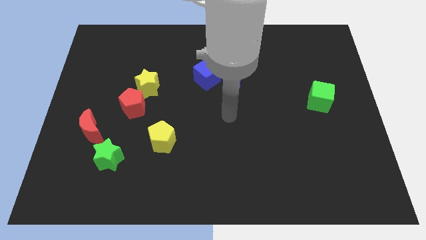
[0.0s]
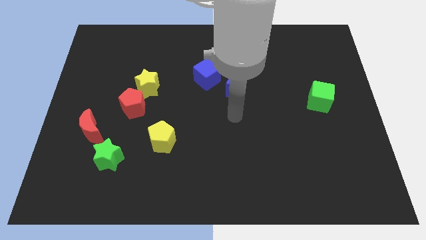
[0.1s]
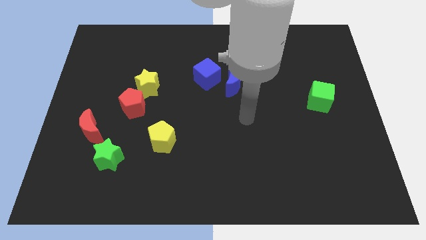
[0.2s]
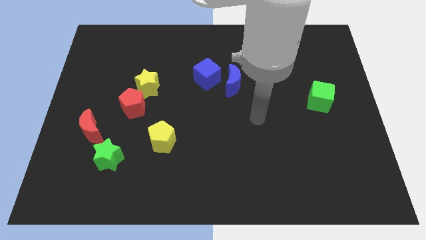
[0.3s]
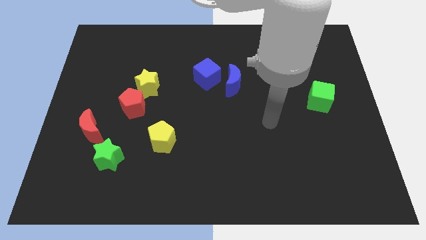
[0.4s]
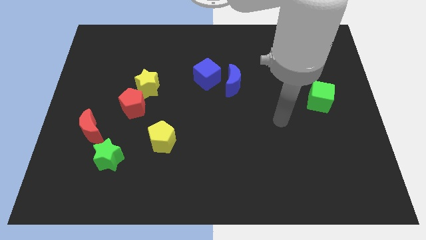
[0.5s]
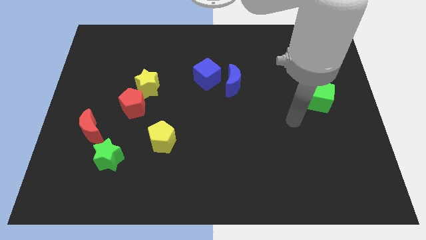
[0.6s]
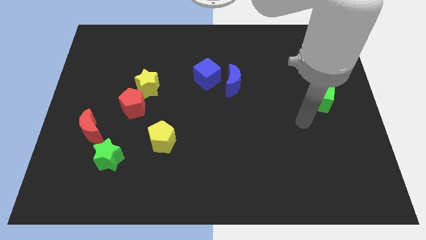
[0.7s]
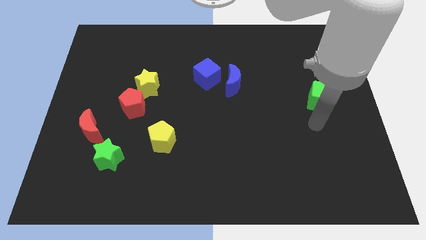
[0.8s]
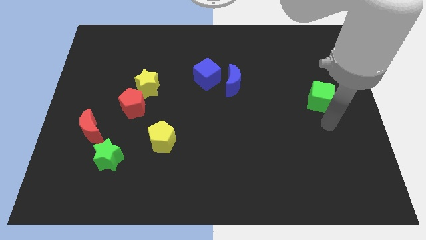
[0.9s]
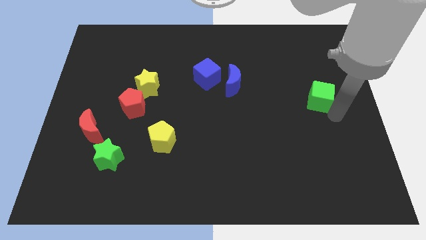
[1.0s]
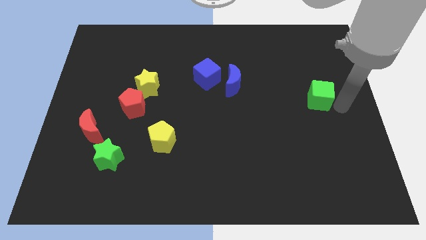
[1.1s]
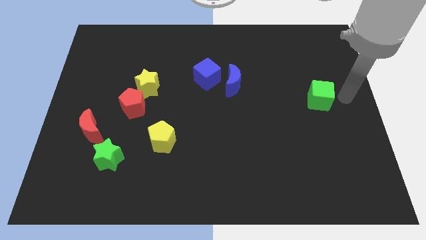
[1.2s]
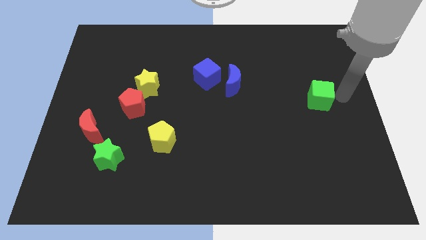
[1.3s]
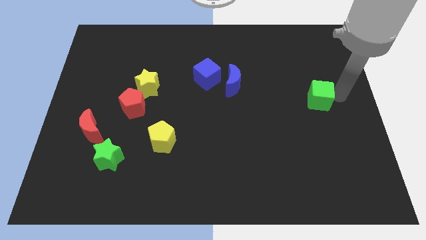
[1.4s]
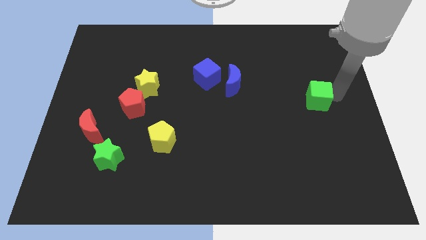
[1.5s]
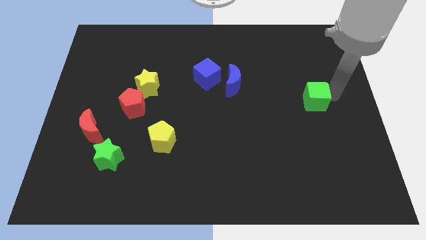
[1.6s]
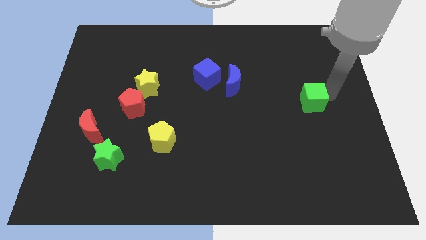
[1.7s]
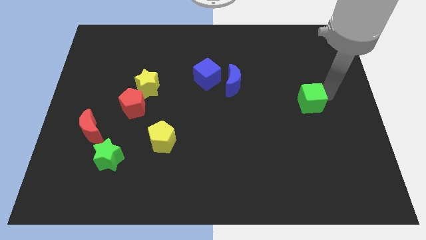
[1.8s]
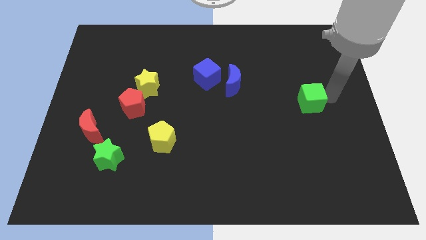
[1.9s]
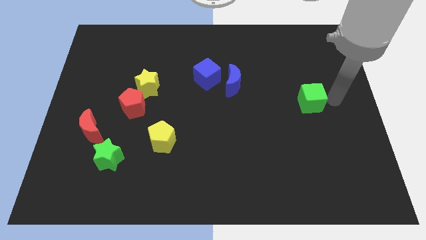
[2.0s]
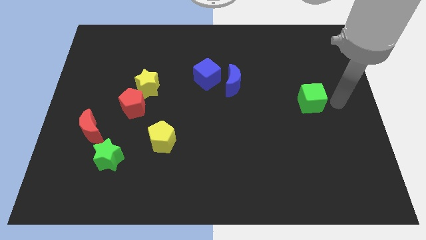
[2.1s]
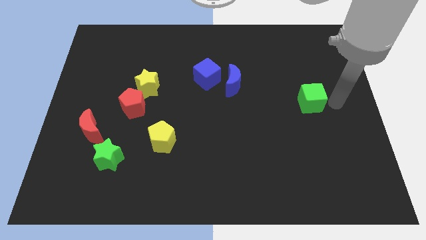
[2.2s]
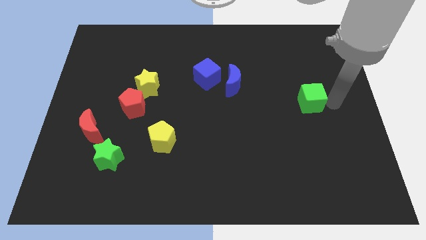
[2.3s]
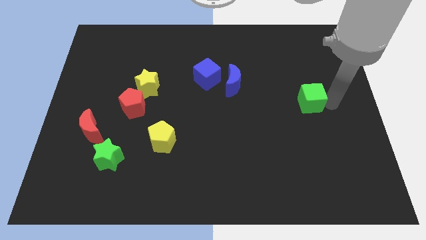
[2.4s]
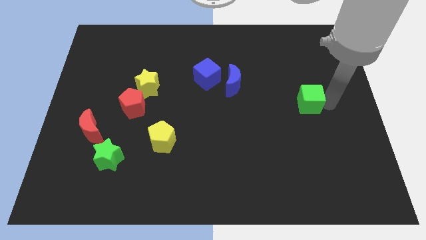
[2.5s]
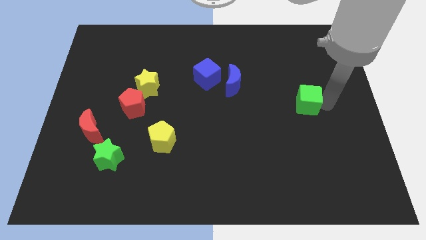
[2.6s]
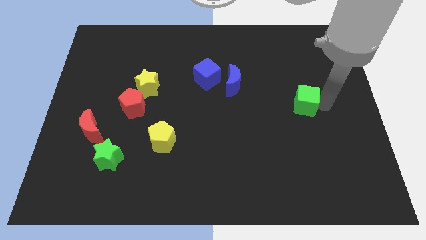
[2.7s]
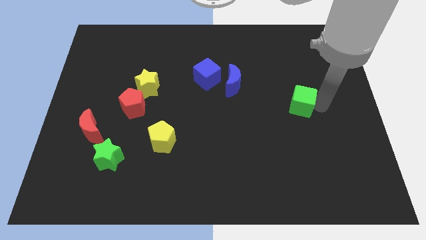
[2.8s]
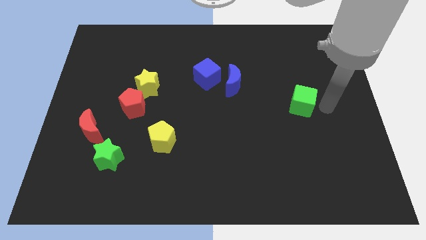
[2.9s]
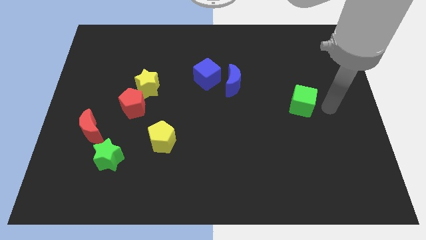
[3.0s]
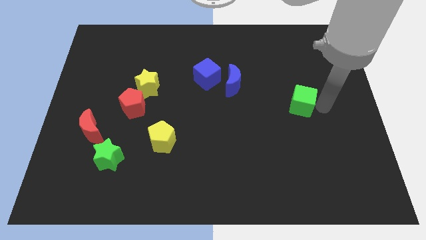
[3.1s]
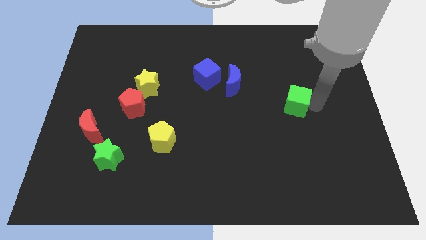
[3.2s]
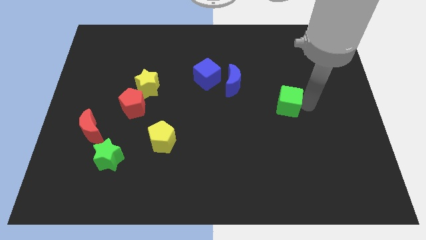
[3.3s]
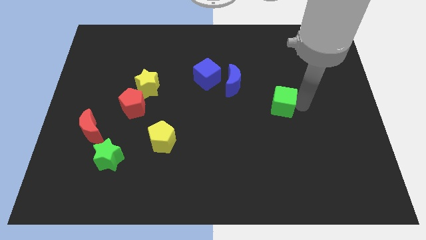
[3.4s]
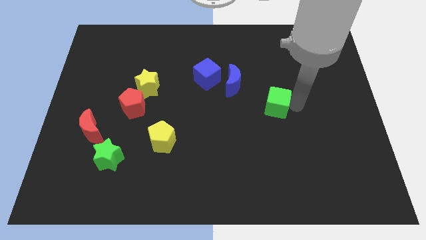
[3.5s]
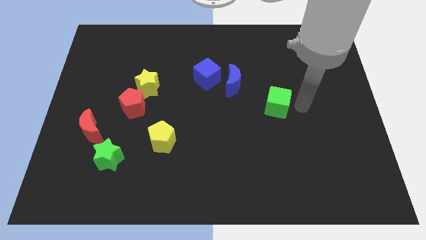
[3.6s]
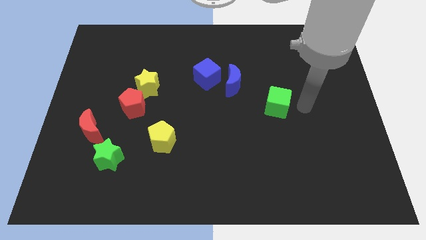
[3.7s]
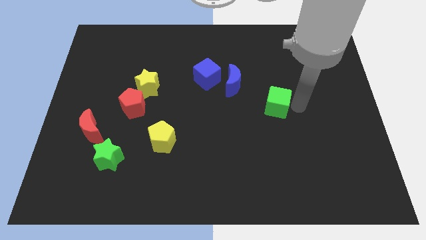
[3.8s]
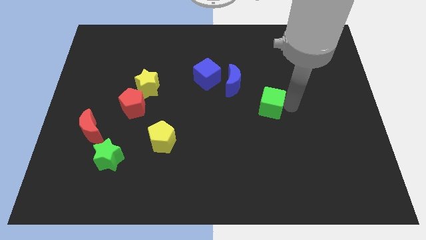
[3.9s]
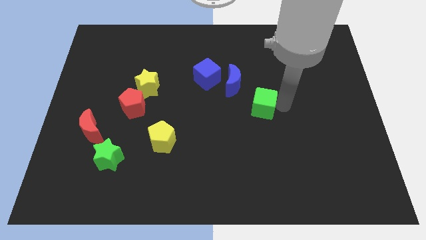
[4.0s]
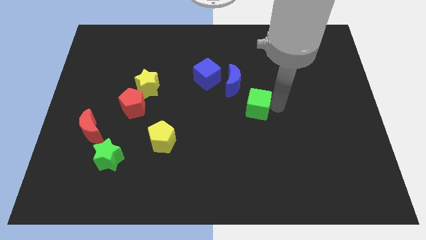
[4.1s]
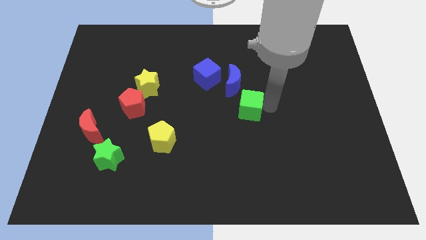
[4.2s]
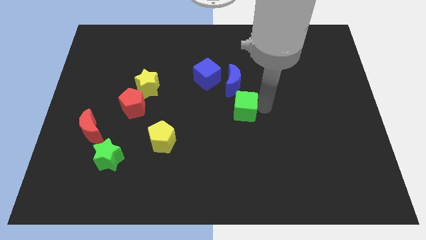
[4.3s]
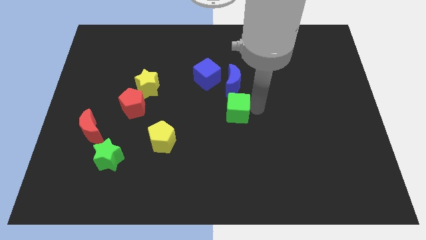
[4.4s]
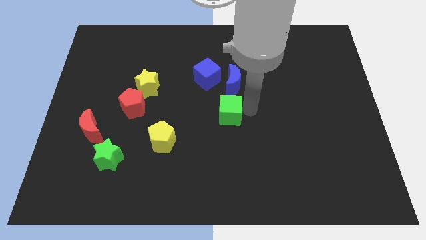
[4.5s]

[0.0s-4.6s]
move the green cube to the left

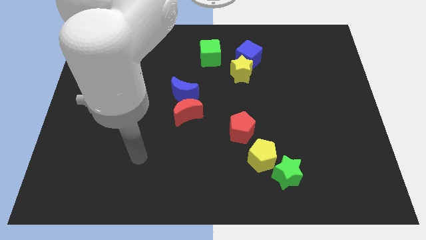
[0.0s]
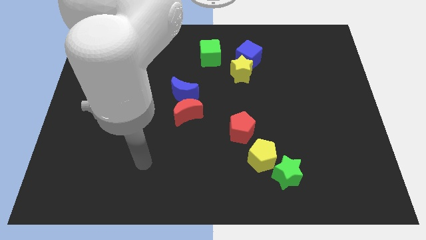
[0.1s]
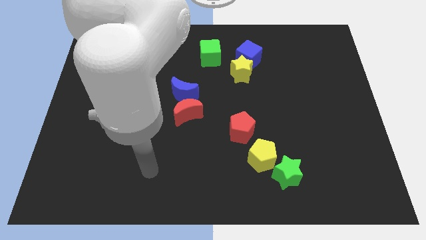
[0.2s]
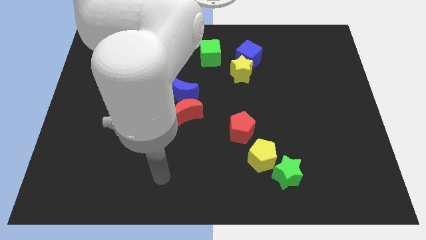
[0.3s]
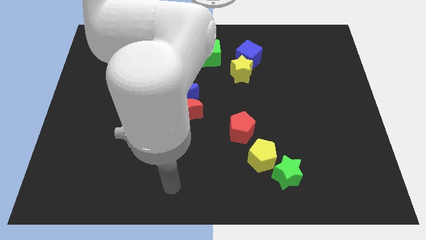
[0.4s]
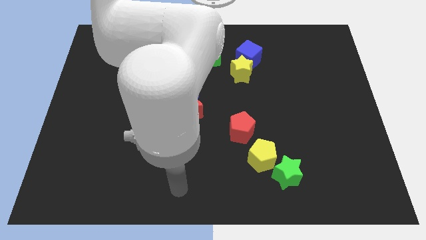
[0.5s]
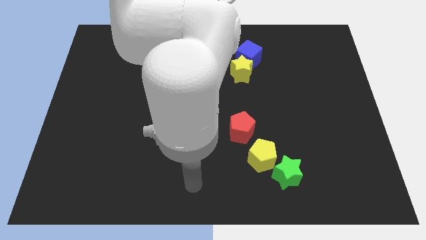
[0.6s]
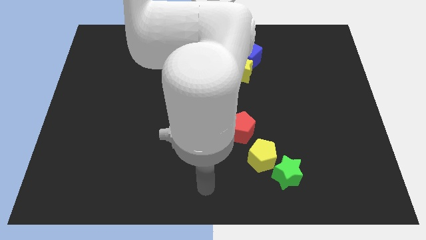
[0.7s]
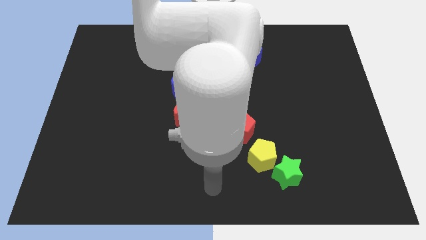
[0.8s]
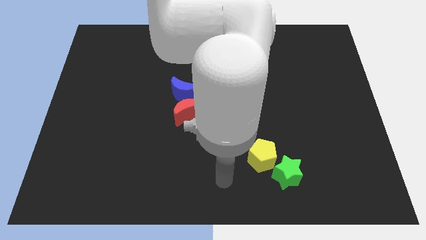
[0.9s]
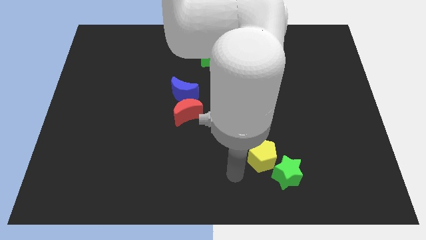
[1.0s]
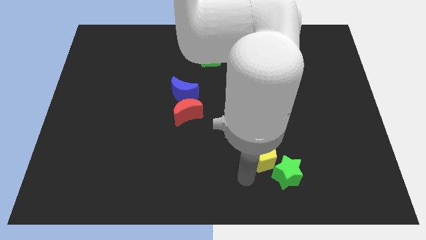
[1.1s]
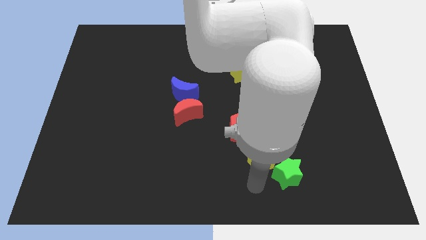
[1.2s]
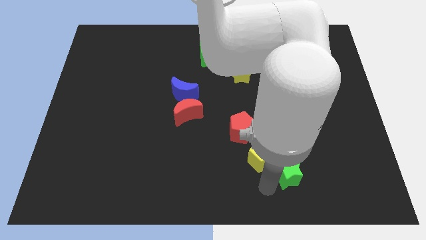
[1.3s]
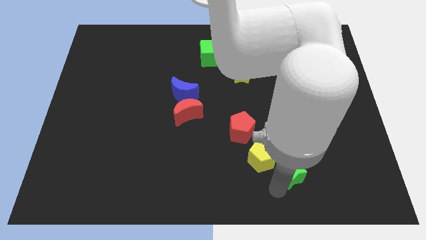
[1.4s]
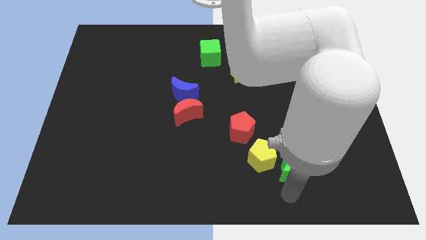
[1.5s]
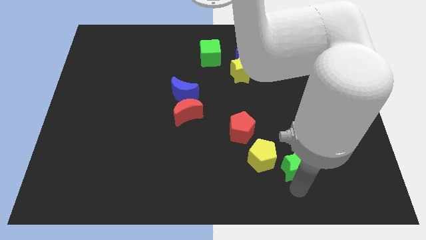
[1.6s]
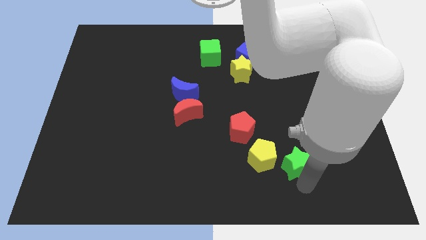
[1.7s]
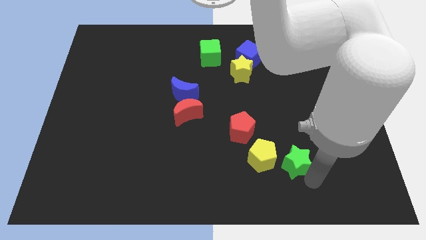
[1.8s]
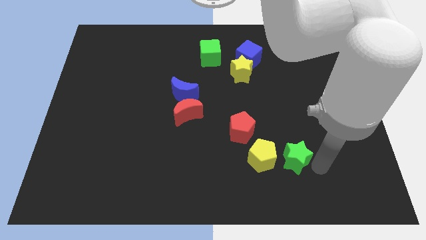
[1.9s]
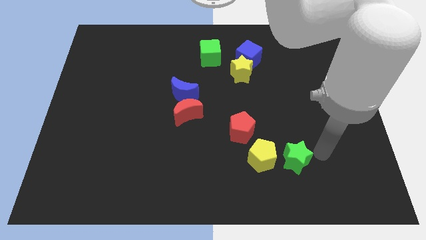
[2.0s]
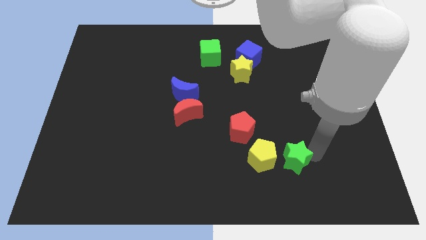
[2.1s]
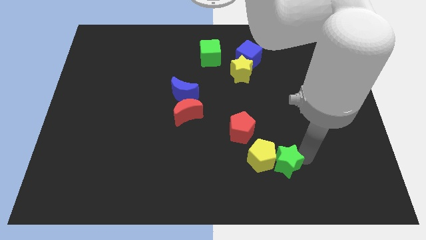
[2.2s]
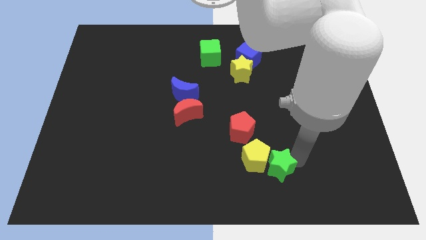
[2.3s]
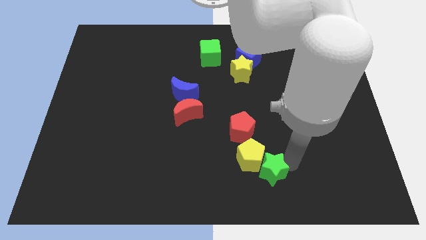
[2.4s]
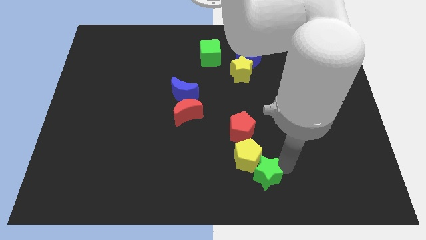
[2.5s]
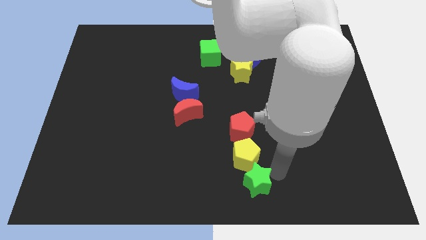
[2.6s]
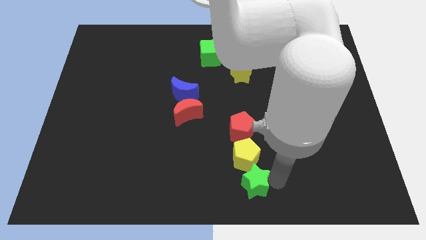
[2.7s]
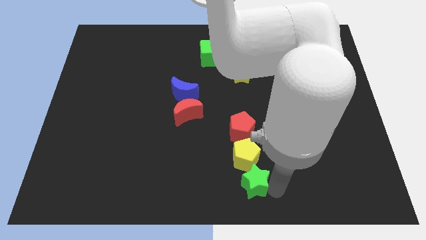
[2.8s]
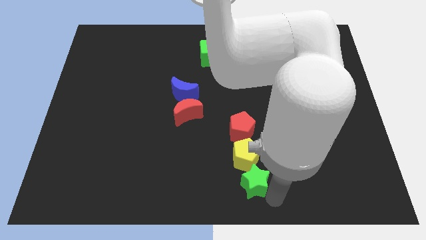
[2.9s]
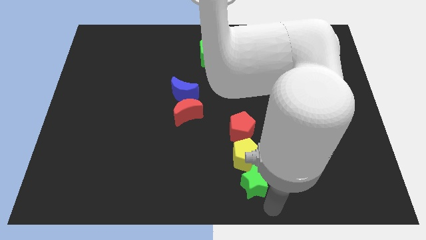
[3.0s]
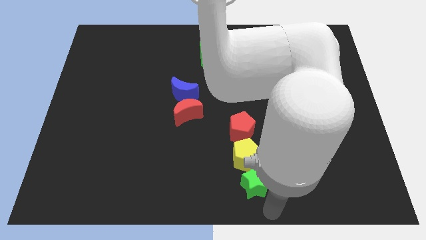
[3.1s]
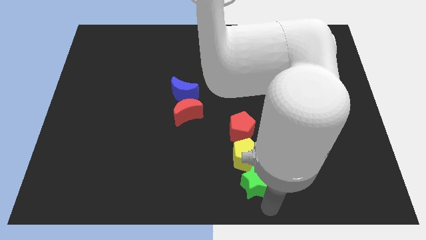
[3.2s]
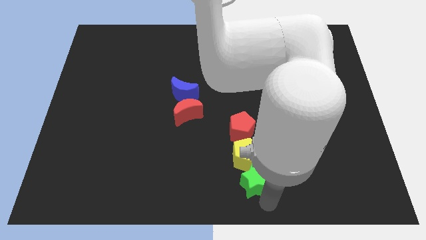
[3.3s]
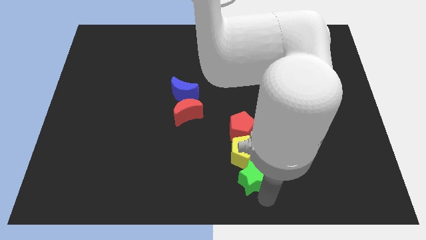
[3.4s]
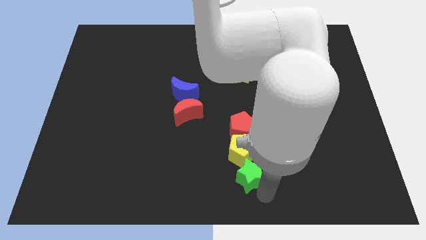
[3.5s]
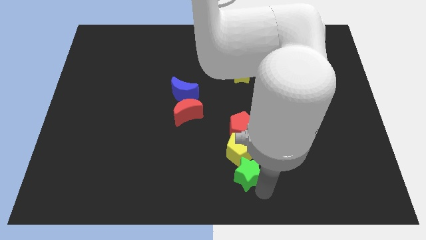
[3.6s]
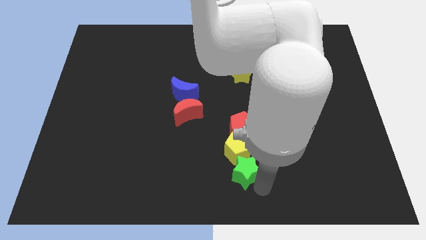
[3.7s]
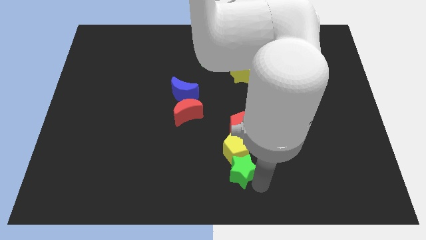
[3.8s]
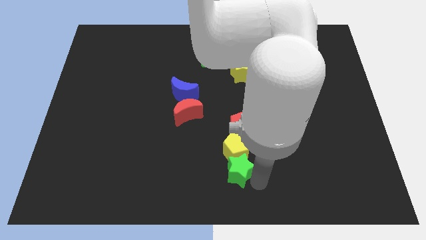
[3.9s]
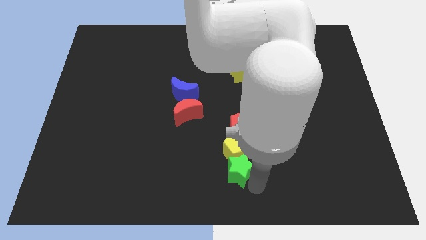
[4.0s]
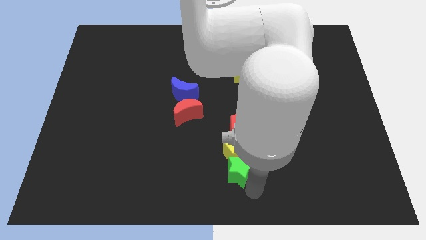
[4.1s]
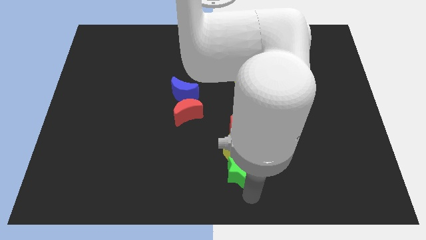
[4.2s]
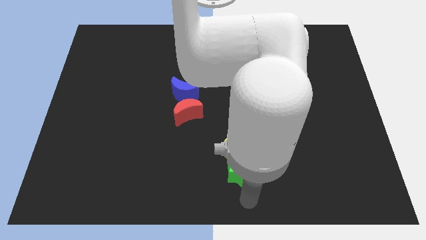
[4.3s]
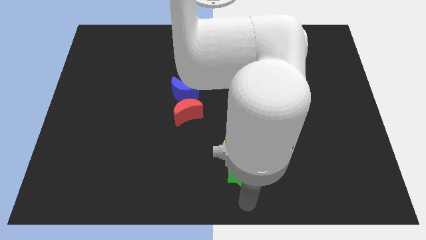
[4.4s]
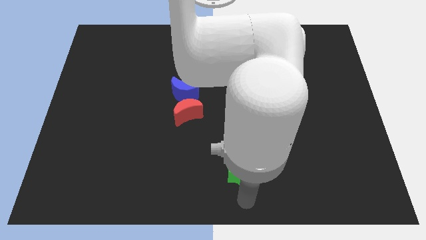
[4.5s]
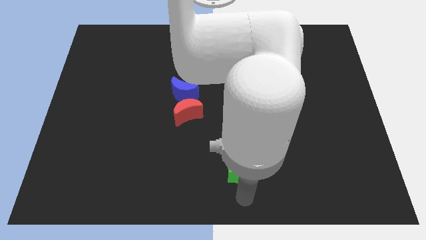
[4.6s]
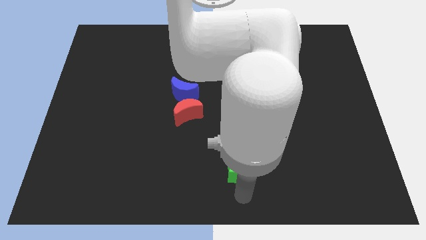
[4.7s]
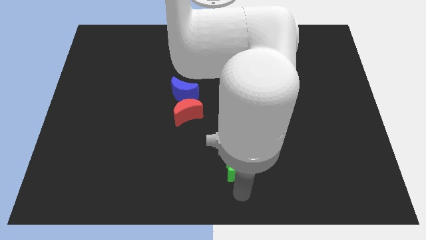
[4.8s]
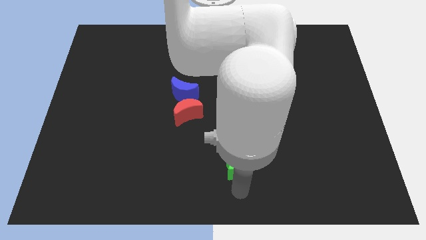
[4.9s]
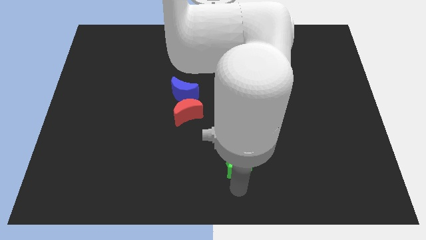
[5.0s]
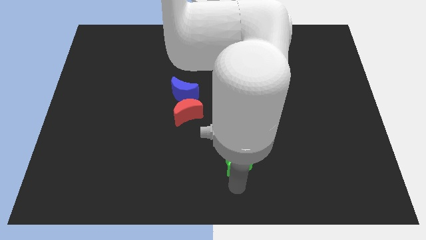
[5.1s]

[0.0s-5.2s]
move the green star upwards and then to the left a bit
